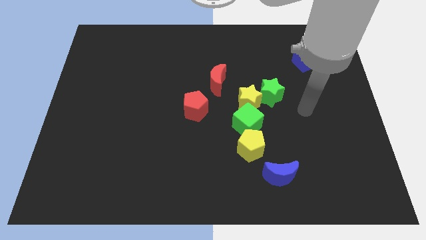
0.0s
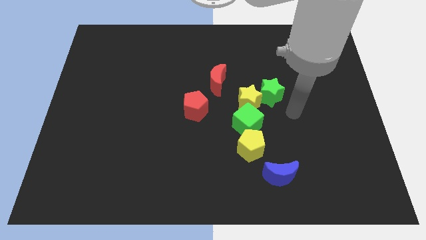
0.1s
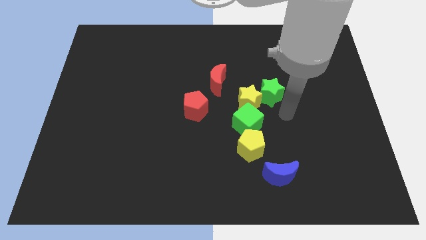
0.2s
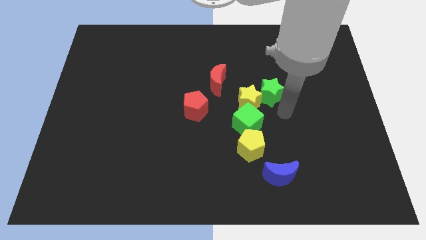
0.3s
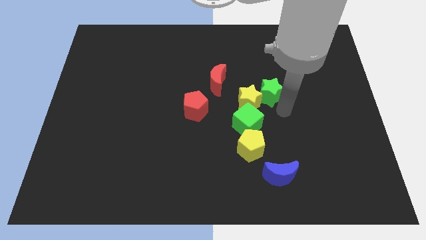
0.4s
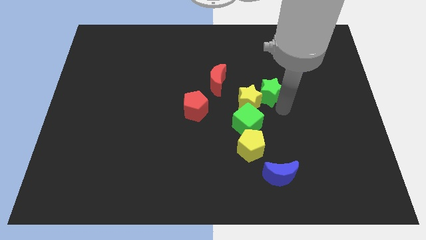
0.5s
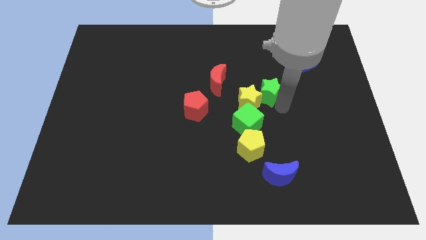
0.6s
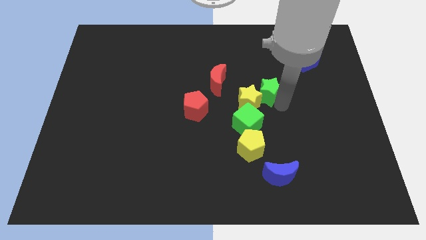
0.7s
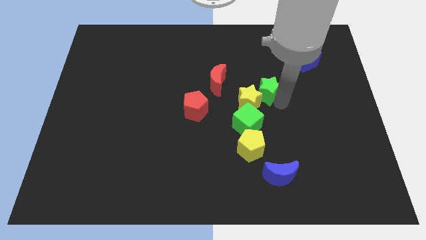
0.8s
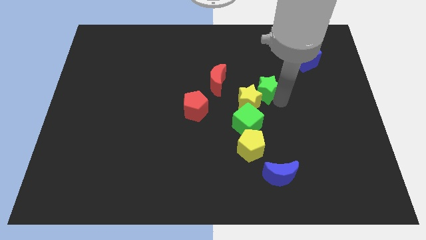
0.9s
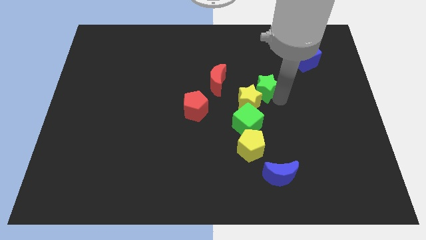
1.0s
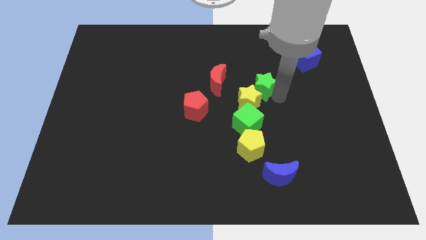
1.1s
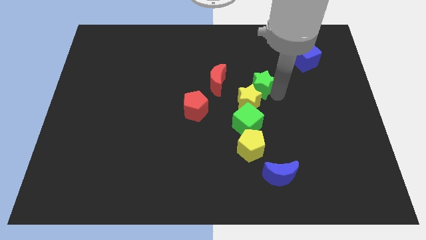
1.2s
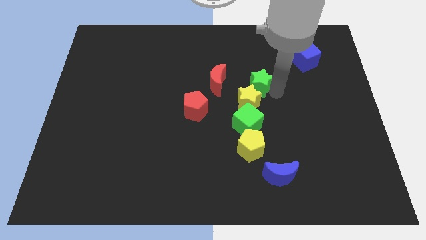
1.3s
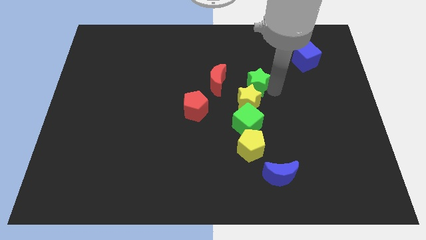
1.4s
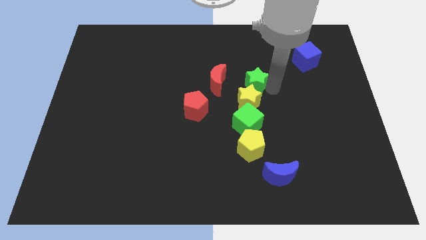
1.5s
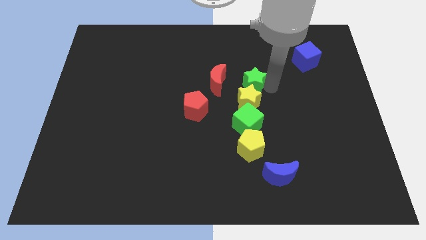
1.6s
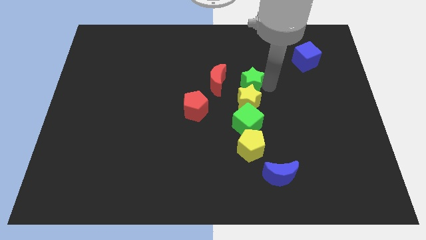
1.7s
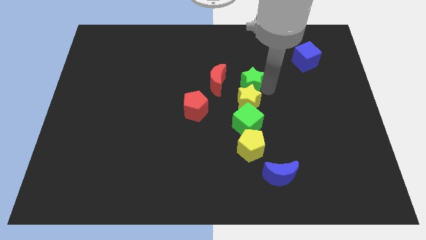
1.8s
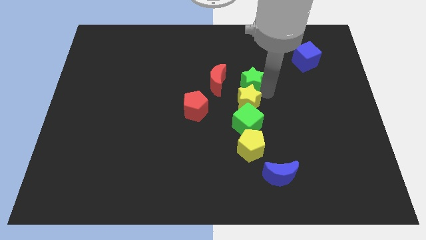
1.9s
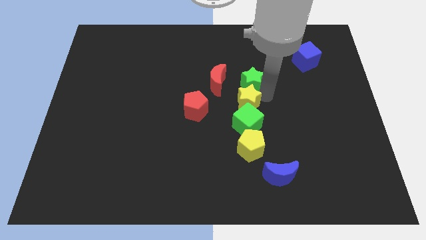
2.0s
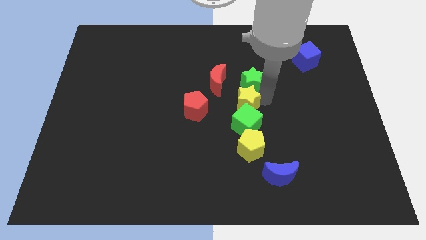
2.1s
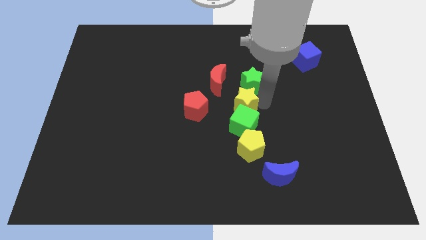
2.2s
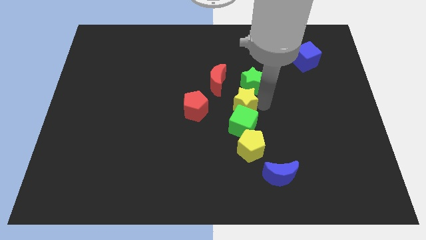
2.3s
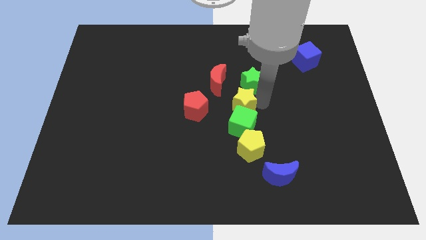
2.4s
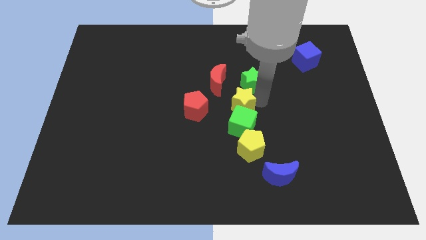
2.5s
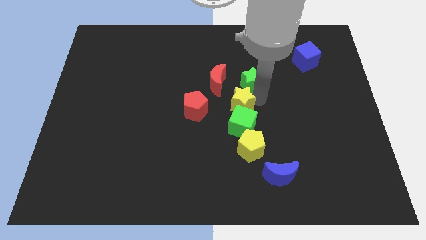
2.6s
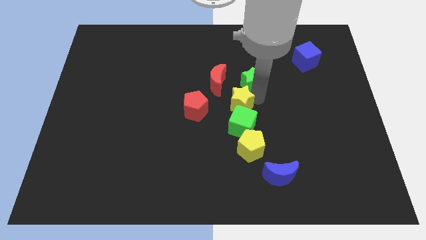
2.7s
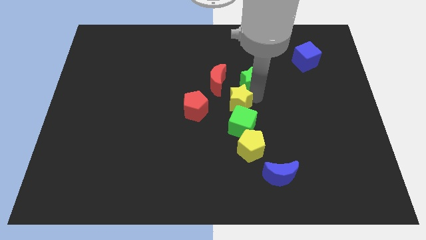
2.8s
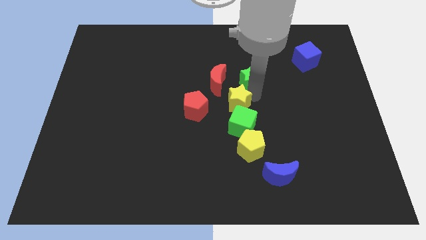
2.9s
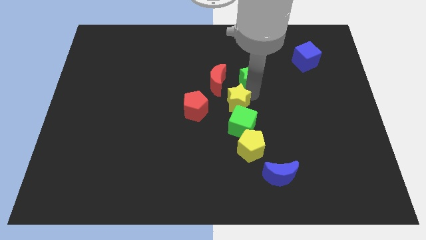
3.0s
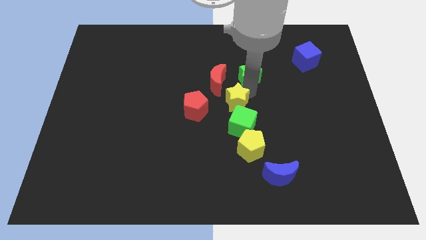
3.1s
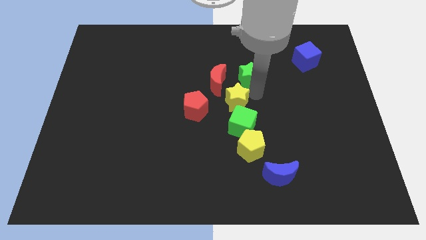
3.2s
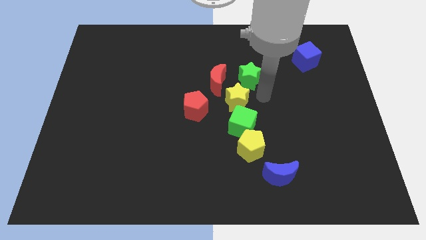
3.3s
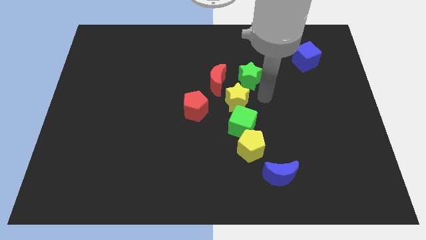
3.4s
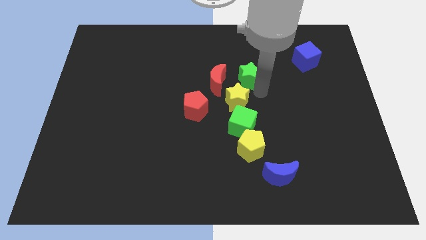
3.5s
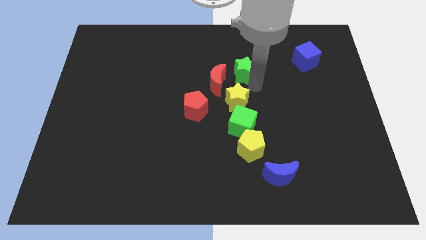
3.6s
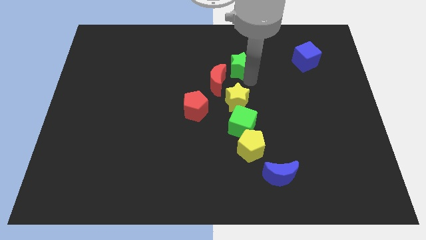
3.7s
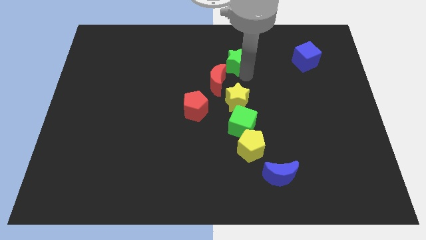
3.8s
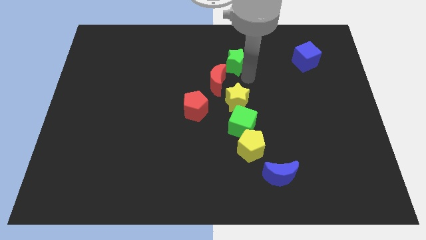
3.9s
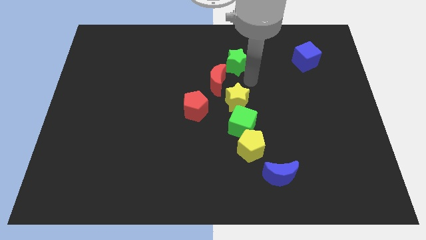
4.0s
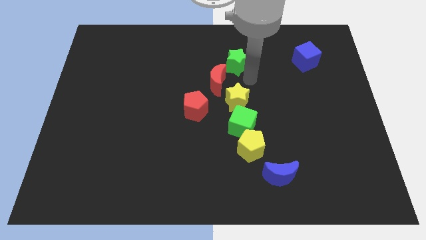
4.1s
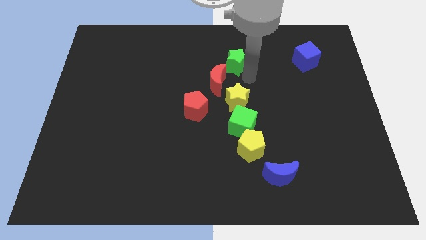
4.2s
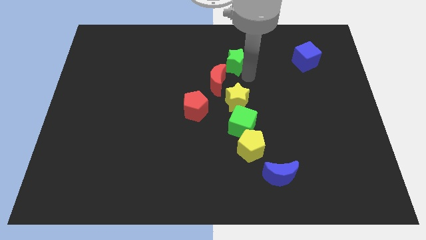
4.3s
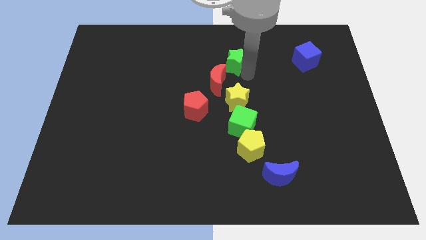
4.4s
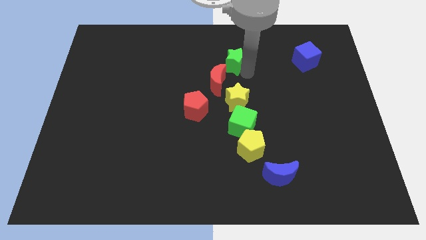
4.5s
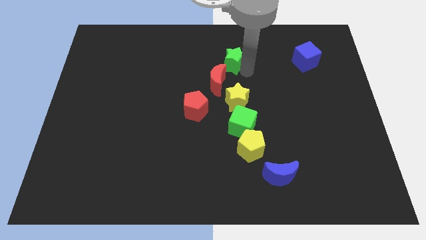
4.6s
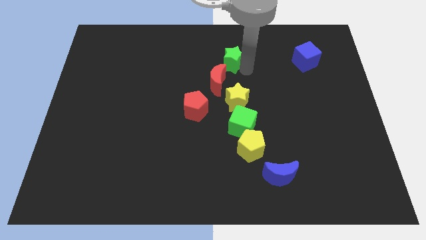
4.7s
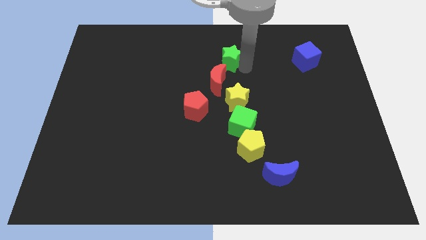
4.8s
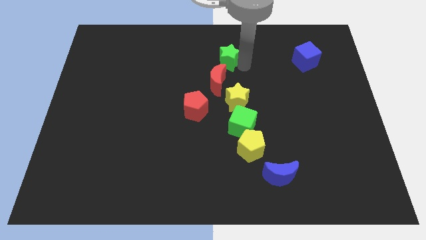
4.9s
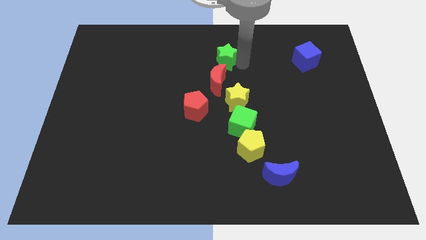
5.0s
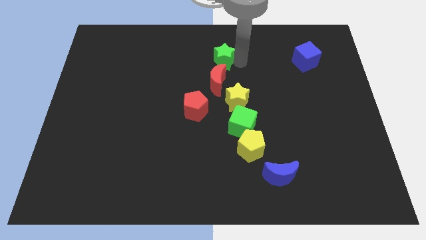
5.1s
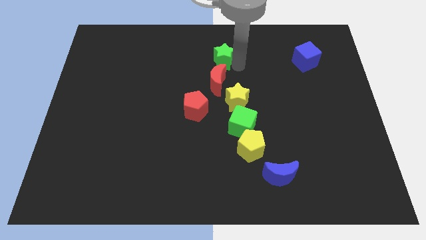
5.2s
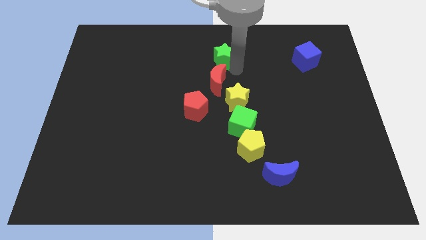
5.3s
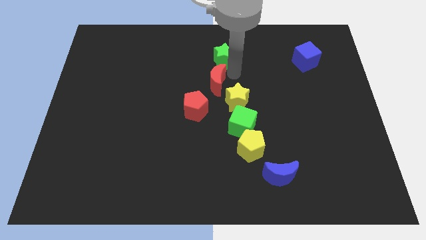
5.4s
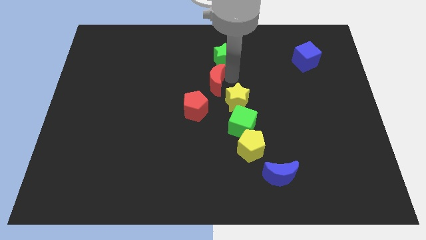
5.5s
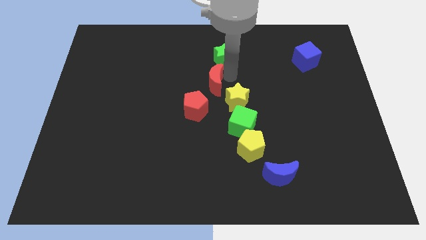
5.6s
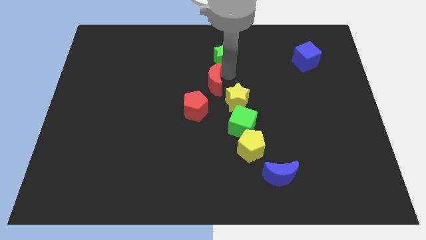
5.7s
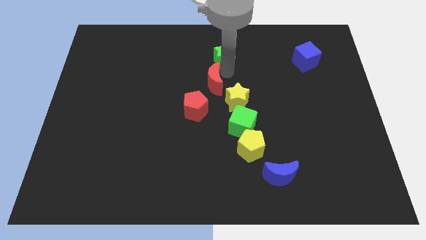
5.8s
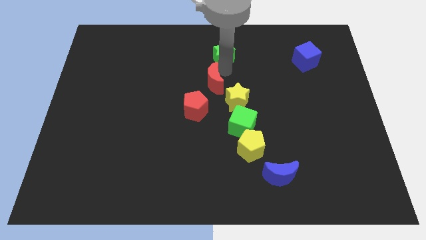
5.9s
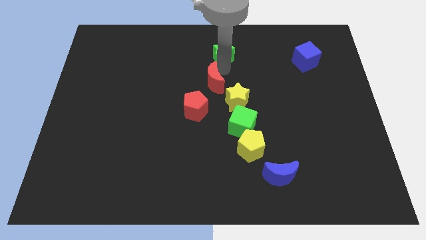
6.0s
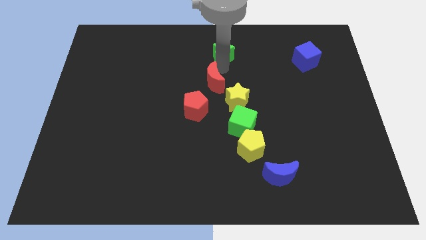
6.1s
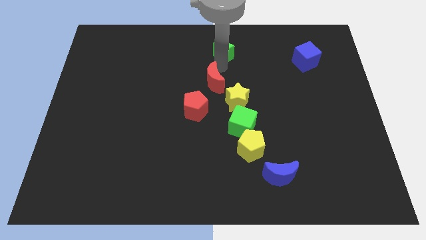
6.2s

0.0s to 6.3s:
push the green star to the top

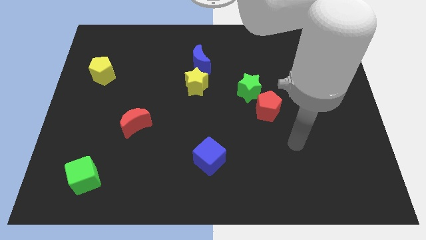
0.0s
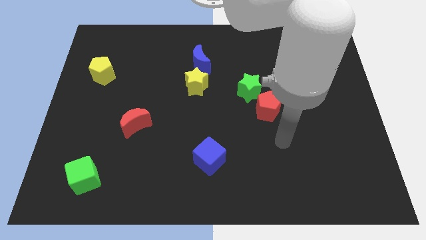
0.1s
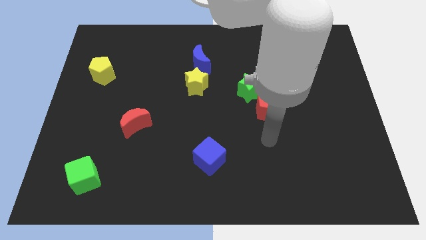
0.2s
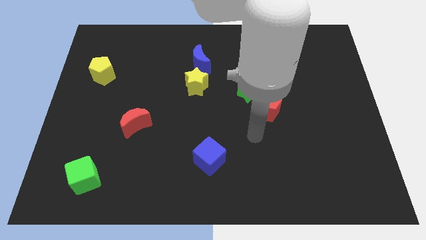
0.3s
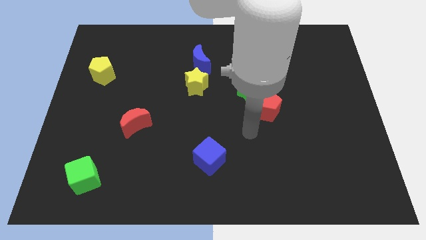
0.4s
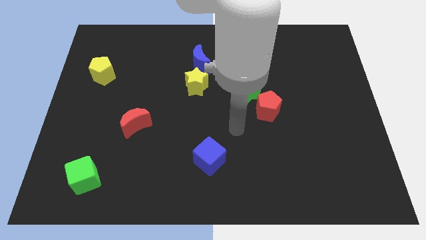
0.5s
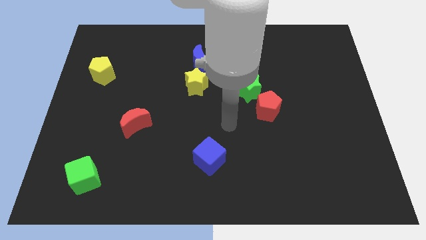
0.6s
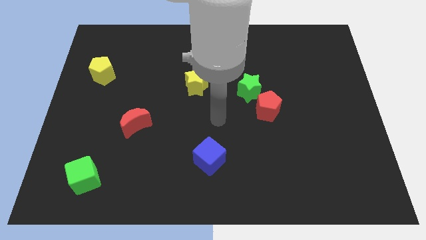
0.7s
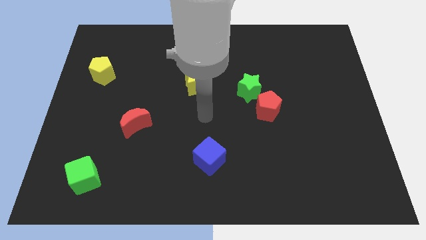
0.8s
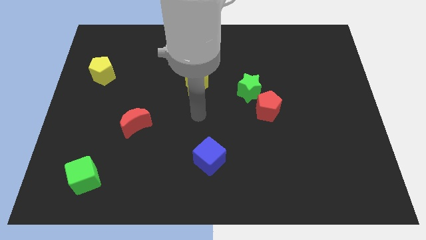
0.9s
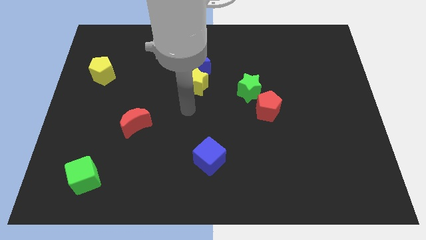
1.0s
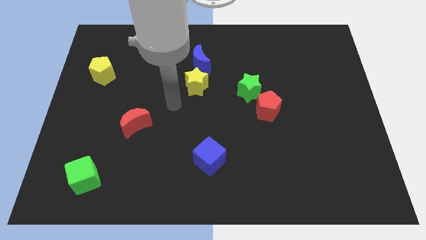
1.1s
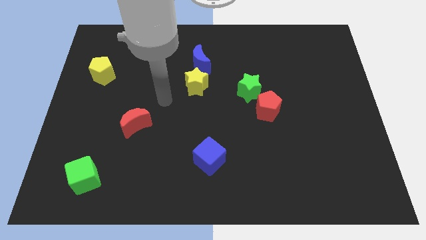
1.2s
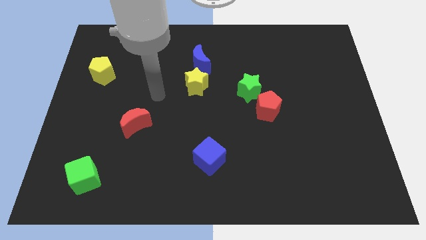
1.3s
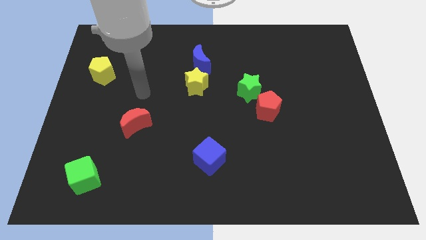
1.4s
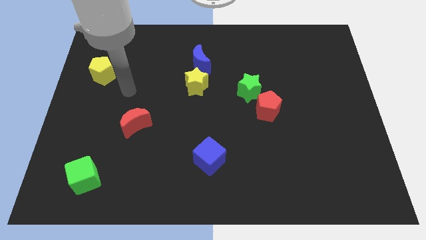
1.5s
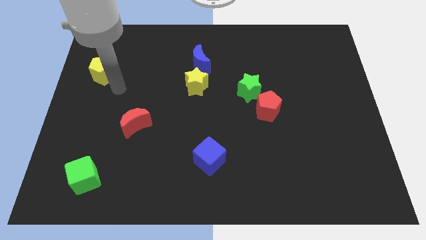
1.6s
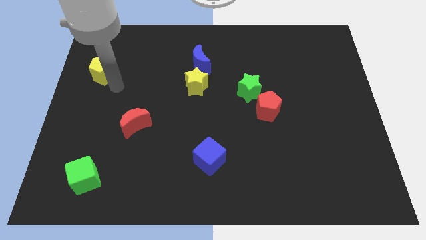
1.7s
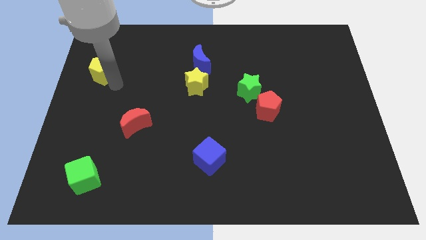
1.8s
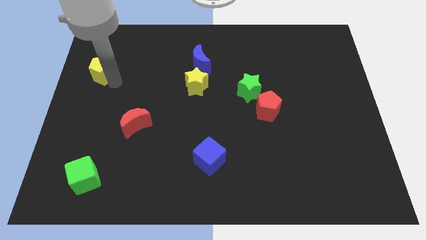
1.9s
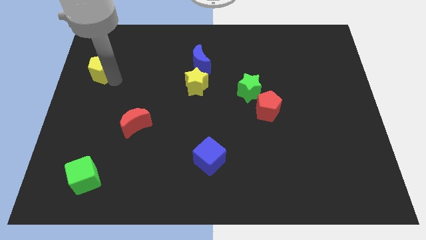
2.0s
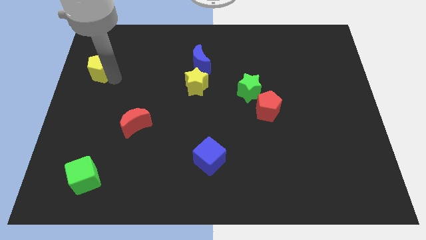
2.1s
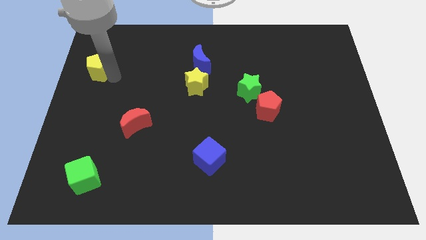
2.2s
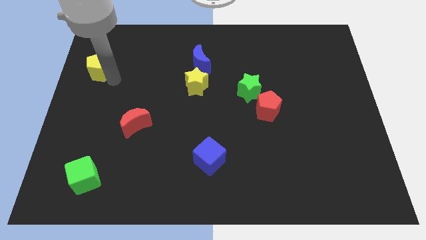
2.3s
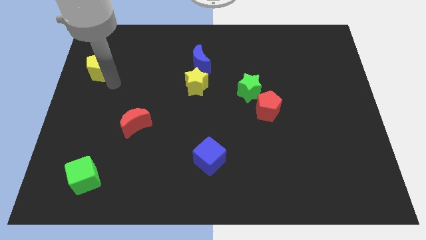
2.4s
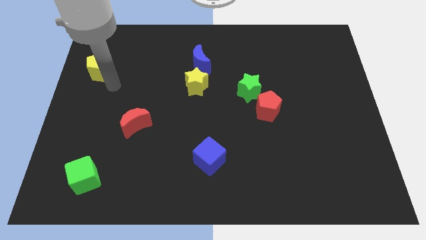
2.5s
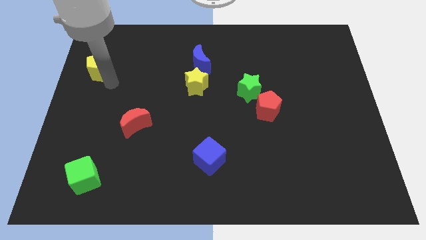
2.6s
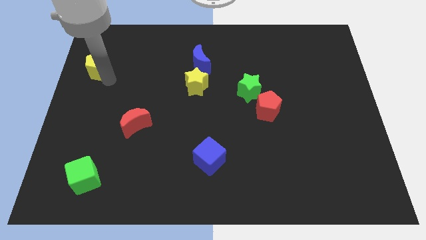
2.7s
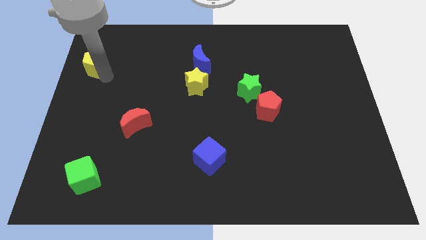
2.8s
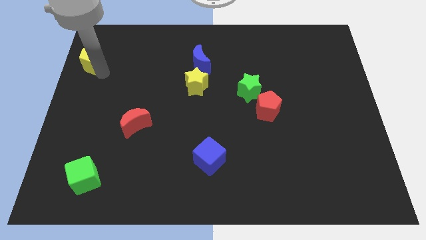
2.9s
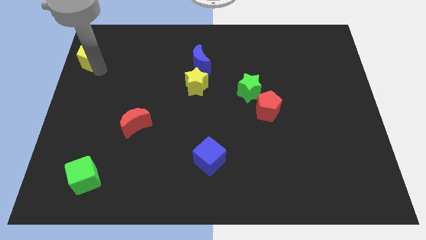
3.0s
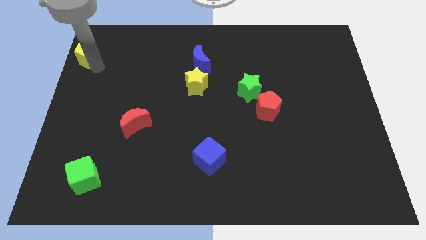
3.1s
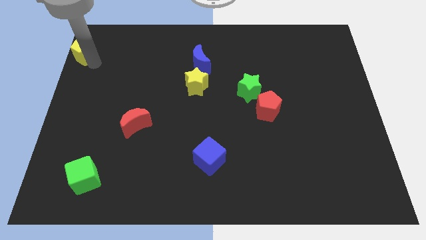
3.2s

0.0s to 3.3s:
move the yellow pentagon to the top left corner
